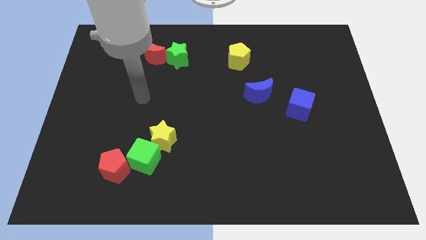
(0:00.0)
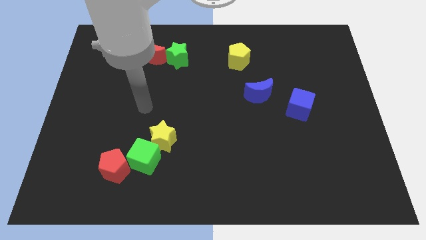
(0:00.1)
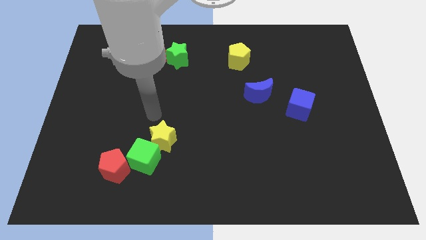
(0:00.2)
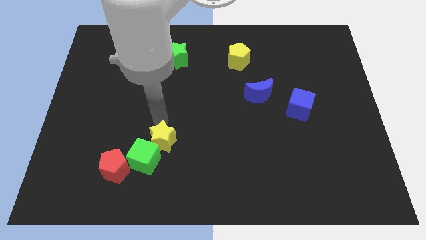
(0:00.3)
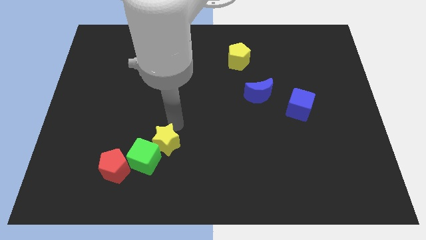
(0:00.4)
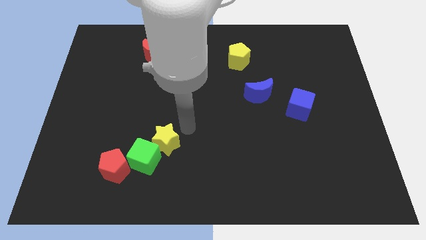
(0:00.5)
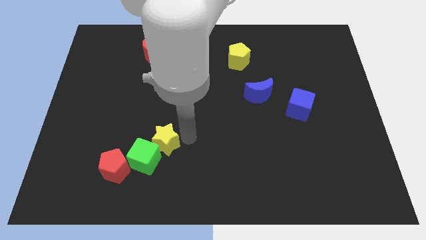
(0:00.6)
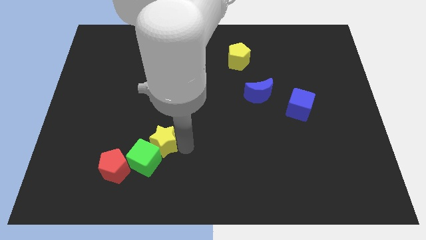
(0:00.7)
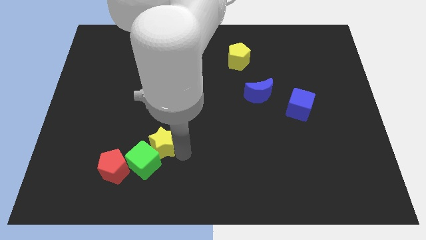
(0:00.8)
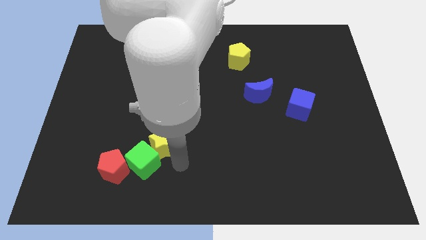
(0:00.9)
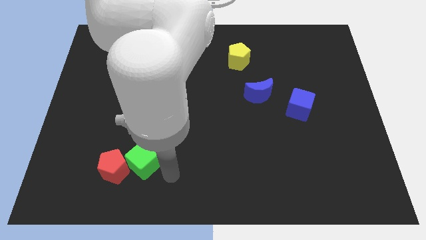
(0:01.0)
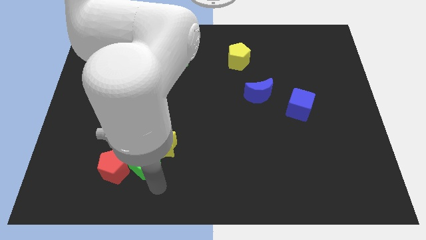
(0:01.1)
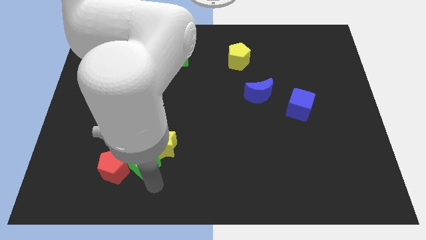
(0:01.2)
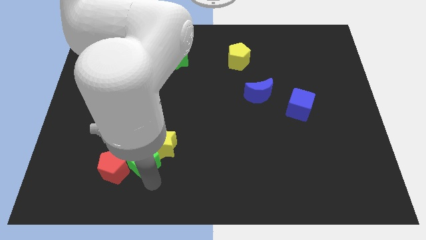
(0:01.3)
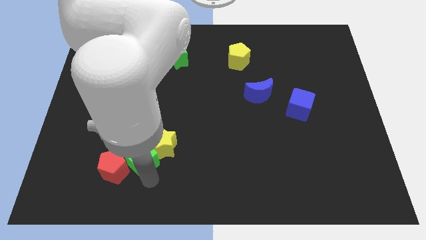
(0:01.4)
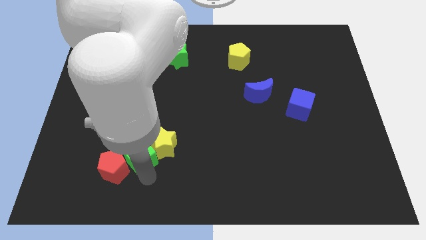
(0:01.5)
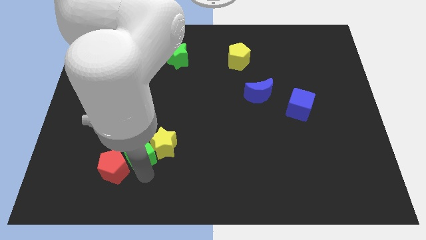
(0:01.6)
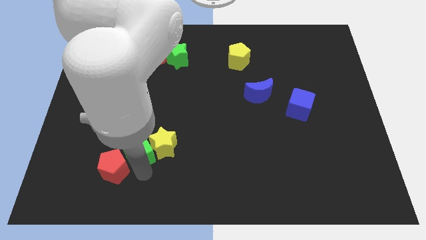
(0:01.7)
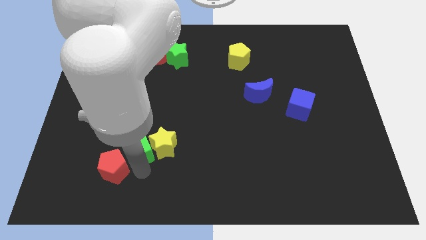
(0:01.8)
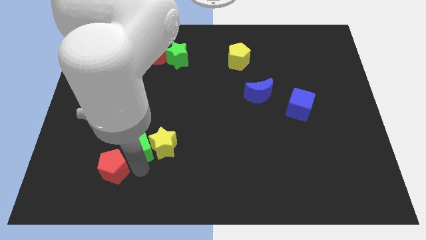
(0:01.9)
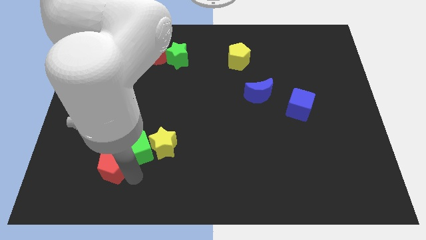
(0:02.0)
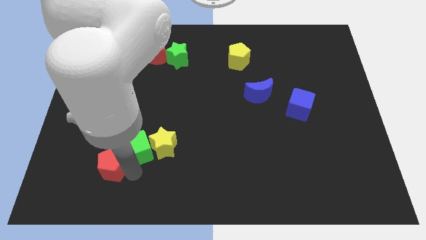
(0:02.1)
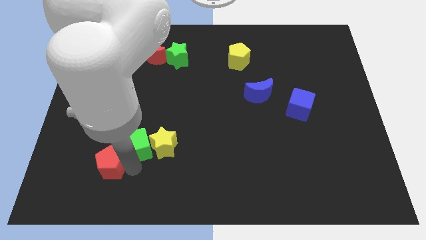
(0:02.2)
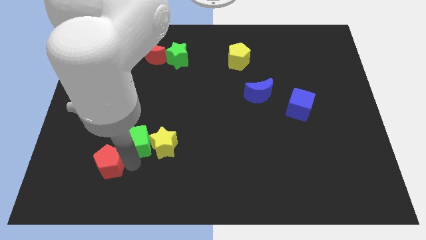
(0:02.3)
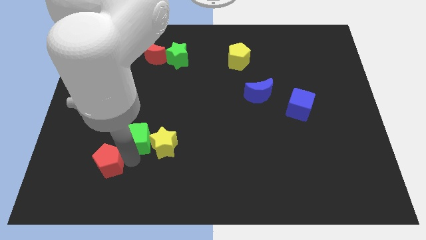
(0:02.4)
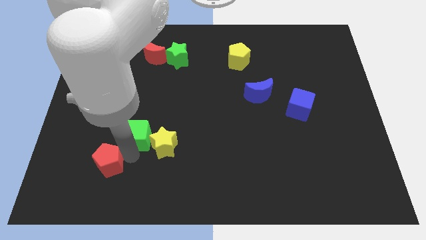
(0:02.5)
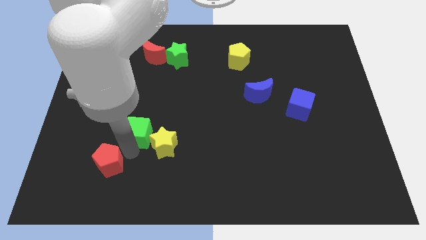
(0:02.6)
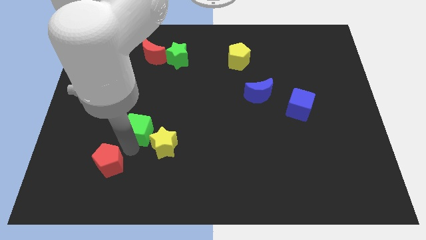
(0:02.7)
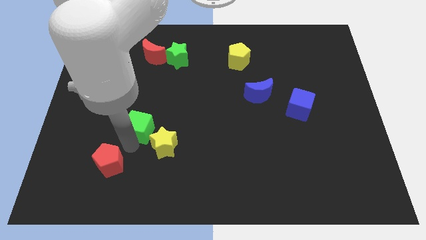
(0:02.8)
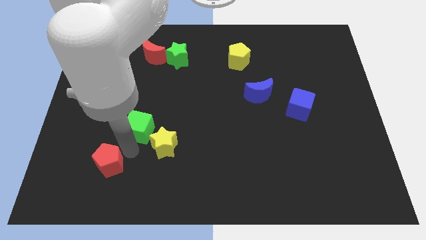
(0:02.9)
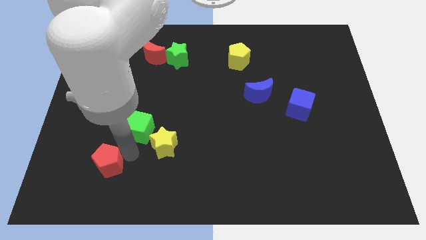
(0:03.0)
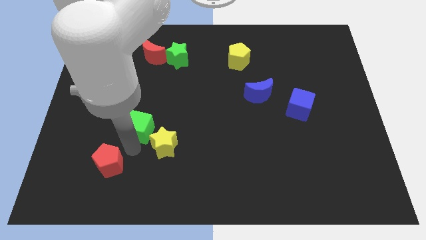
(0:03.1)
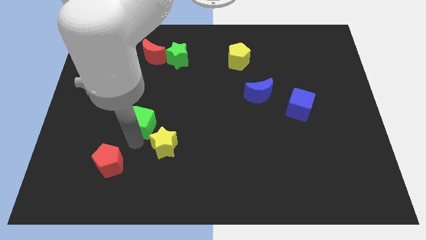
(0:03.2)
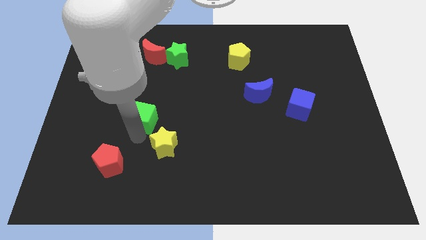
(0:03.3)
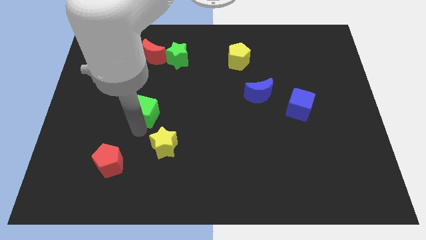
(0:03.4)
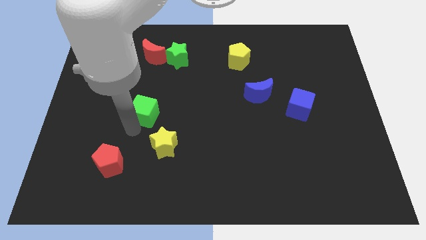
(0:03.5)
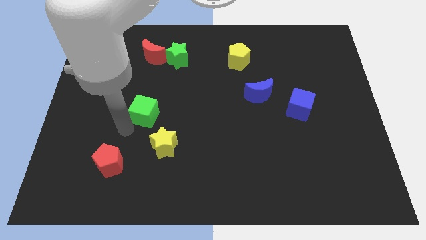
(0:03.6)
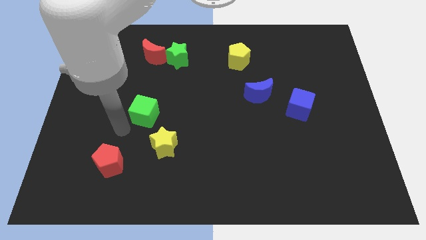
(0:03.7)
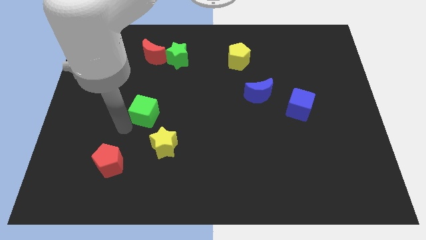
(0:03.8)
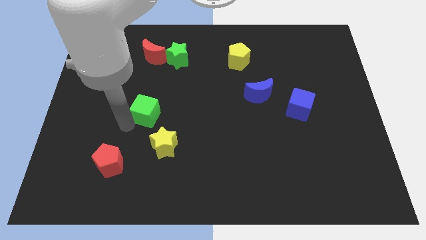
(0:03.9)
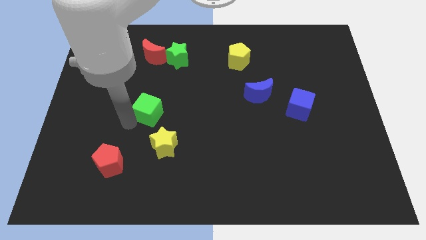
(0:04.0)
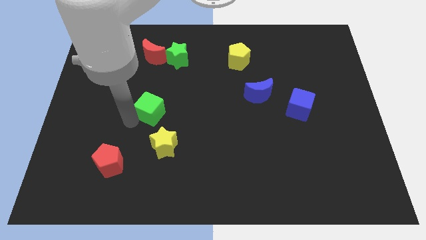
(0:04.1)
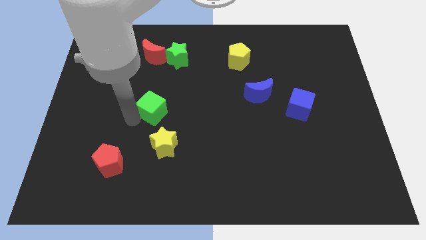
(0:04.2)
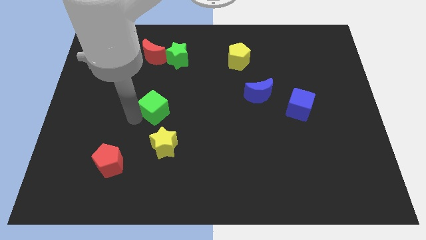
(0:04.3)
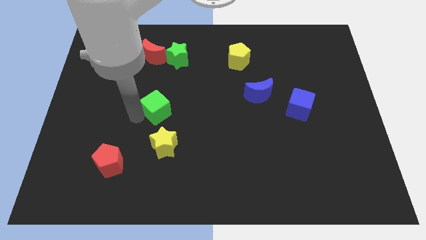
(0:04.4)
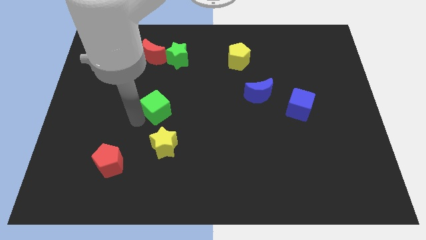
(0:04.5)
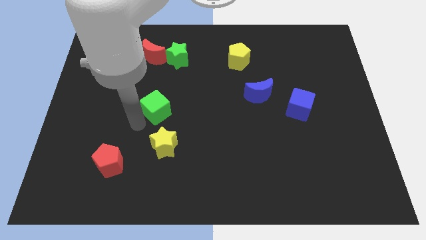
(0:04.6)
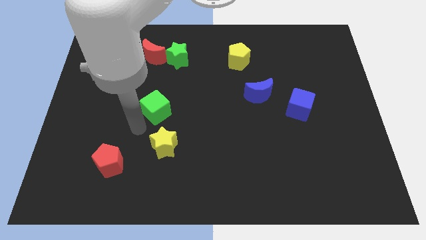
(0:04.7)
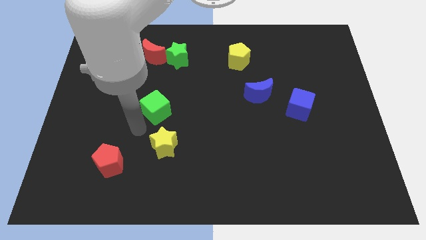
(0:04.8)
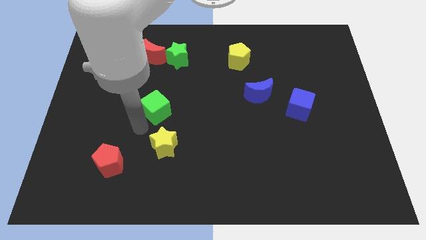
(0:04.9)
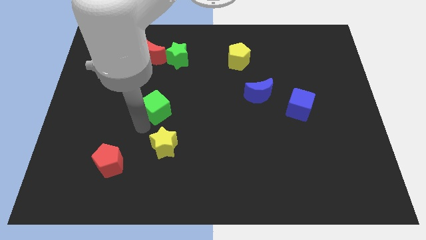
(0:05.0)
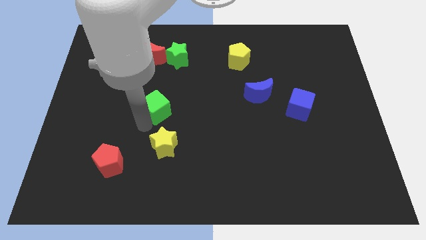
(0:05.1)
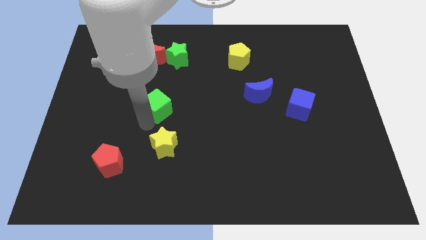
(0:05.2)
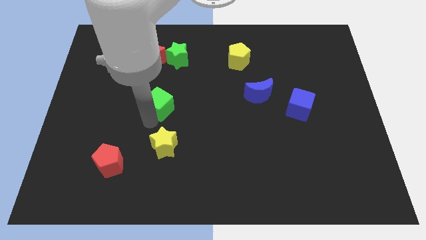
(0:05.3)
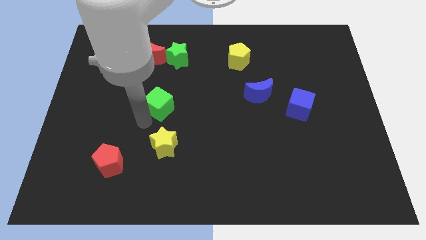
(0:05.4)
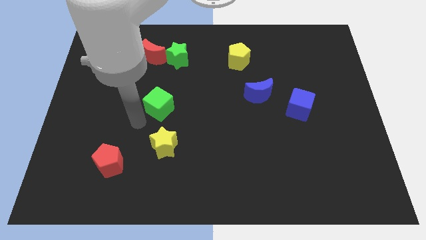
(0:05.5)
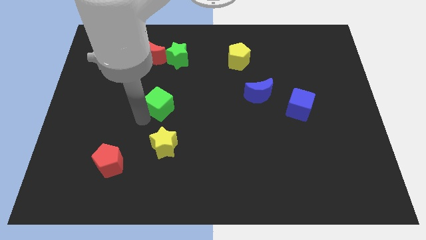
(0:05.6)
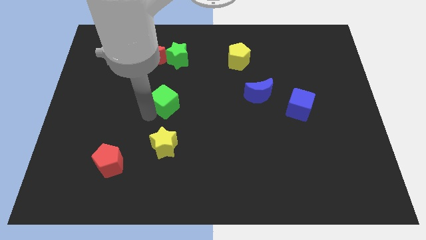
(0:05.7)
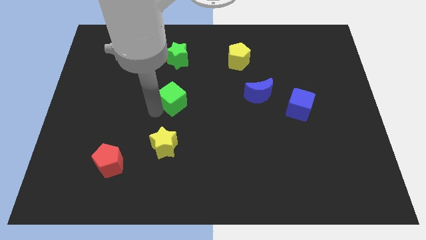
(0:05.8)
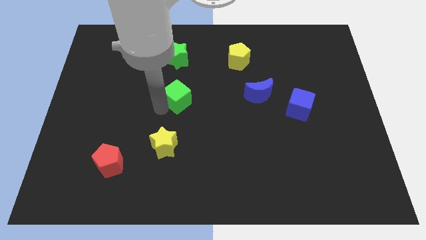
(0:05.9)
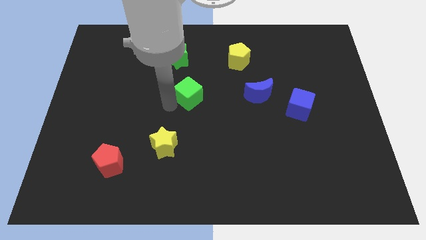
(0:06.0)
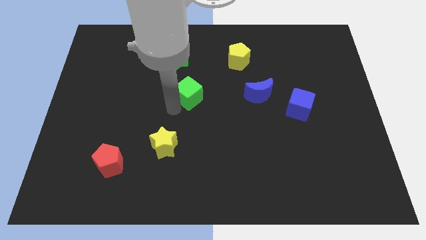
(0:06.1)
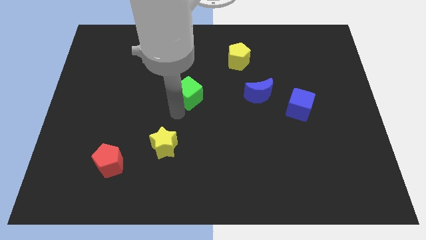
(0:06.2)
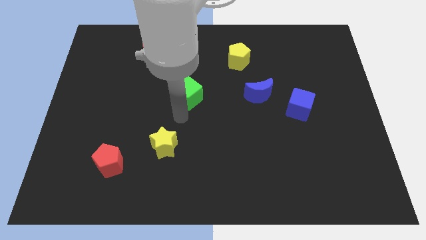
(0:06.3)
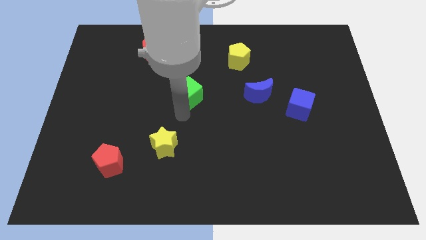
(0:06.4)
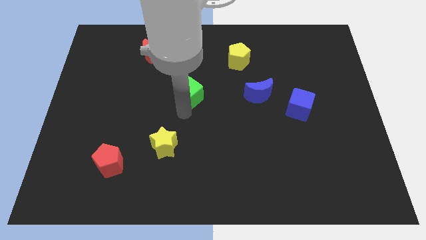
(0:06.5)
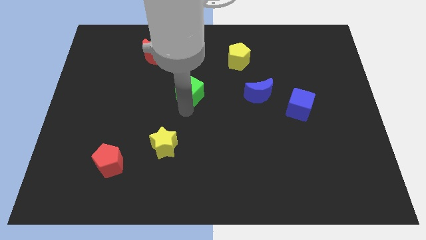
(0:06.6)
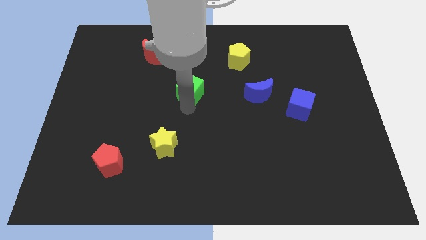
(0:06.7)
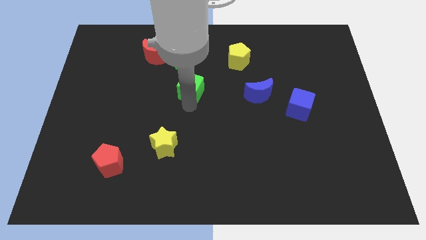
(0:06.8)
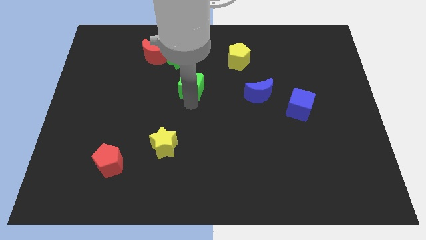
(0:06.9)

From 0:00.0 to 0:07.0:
move the green cube to the bottom right of the green star

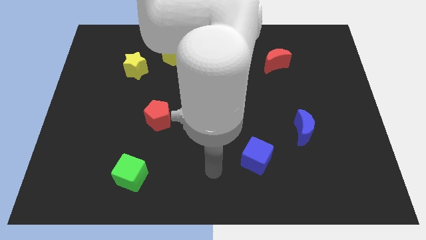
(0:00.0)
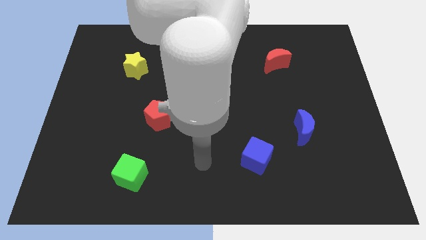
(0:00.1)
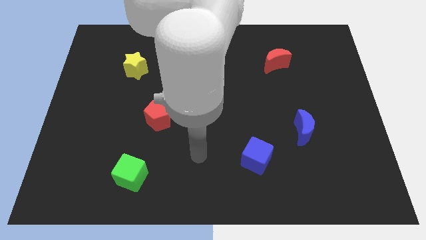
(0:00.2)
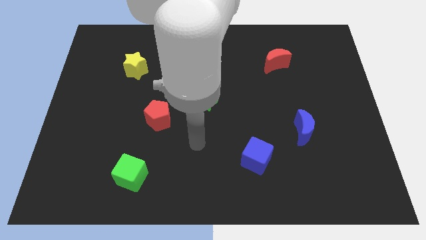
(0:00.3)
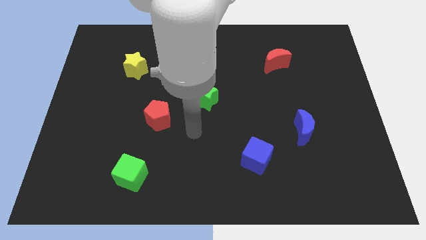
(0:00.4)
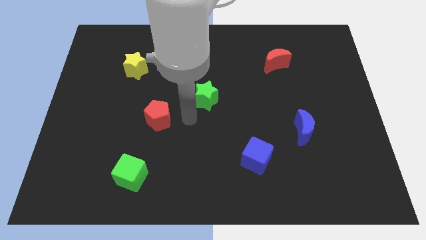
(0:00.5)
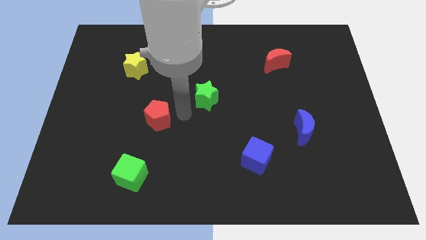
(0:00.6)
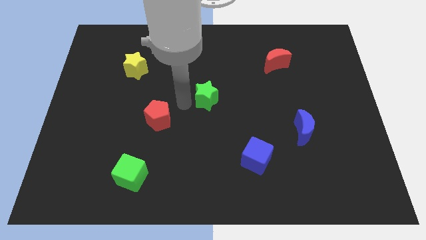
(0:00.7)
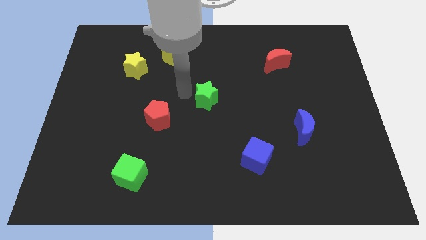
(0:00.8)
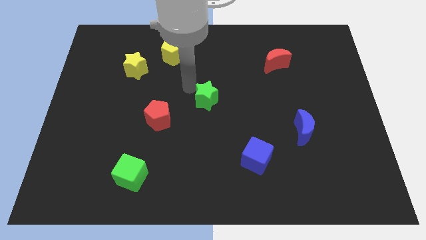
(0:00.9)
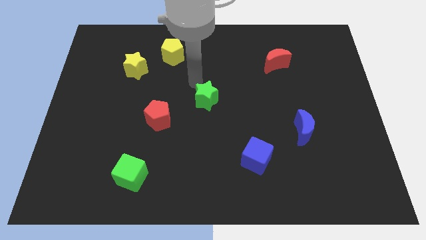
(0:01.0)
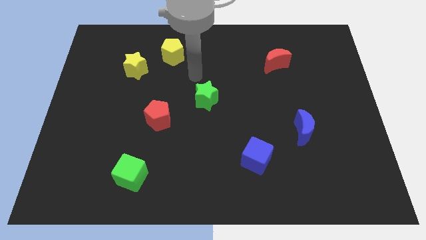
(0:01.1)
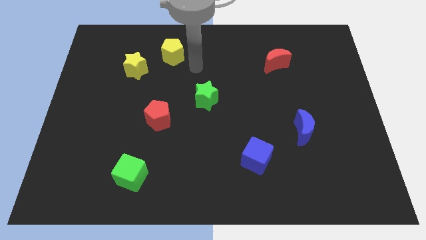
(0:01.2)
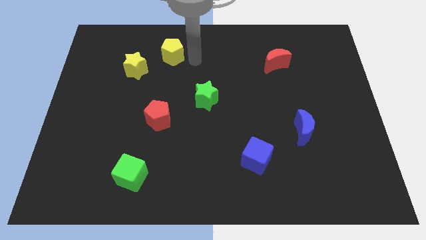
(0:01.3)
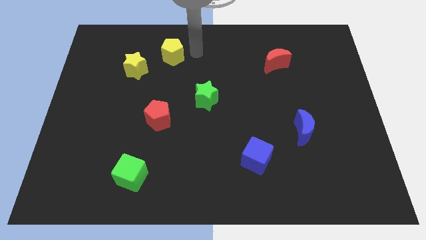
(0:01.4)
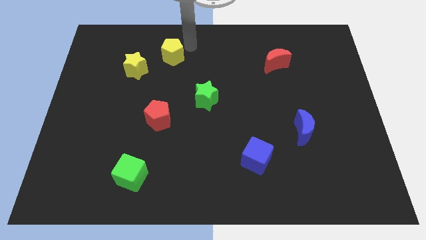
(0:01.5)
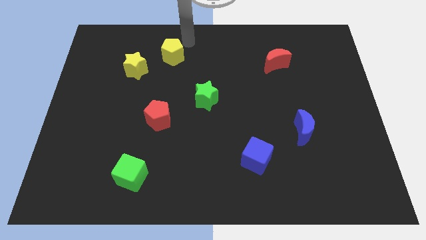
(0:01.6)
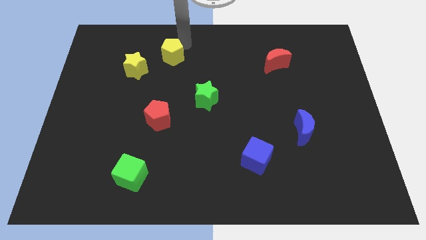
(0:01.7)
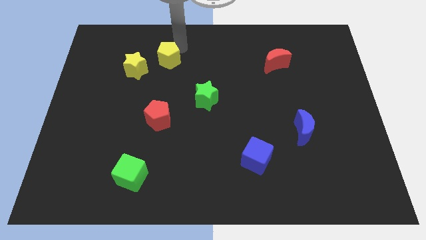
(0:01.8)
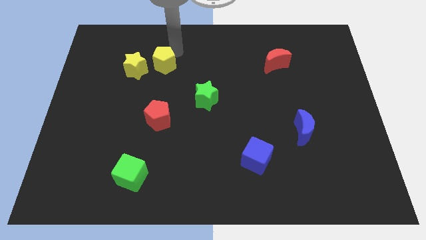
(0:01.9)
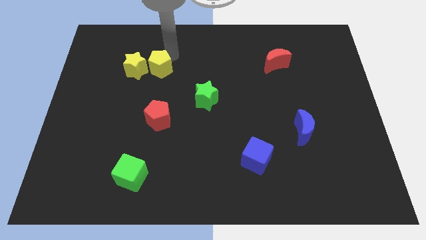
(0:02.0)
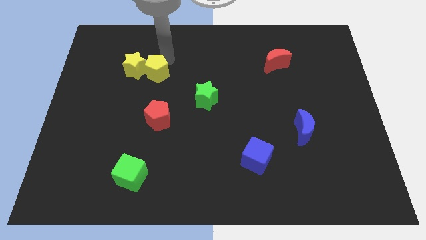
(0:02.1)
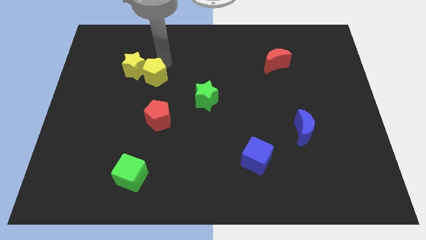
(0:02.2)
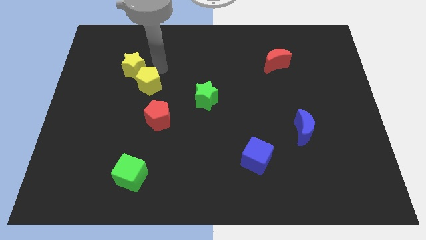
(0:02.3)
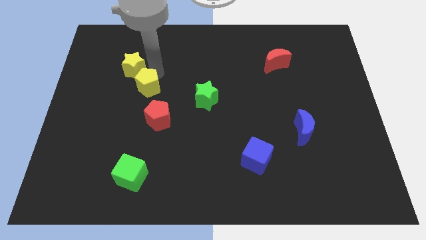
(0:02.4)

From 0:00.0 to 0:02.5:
put the yellow pentagon to the top left side of the red pentagon
